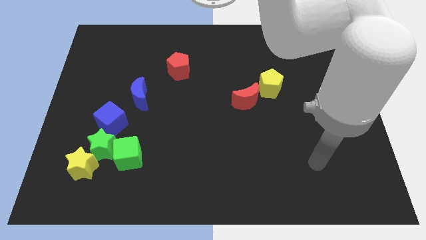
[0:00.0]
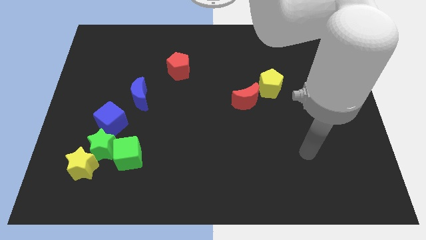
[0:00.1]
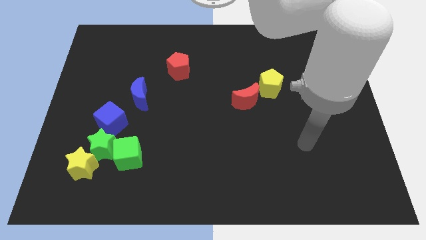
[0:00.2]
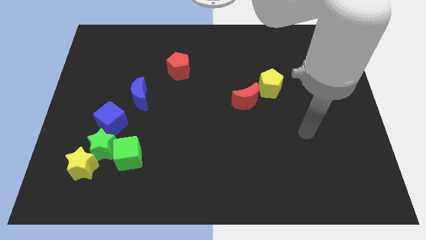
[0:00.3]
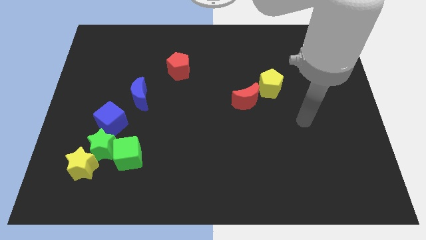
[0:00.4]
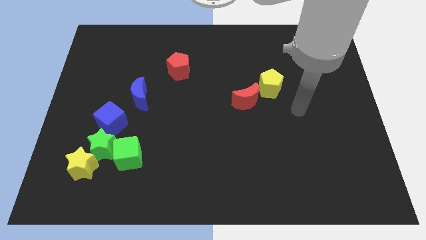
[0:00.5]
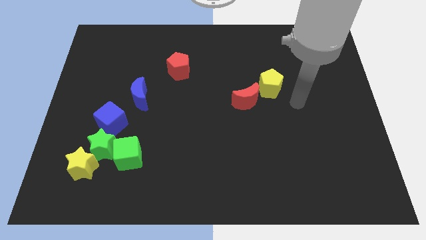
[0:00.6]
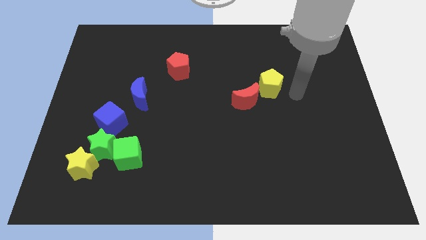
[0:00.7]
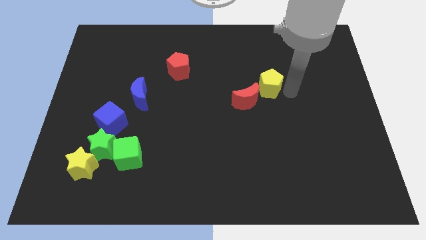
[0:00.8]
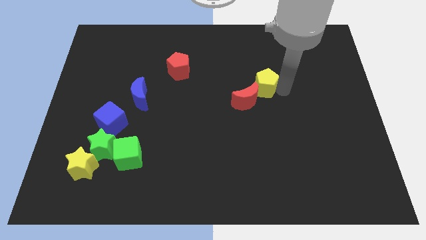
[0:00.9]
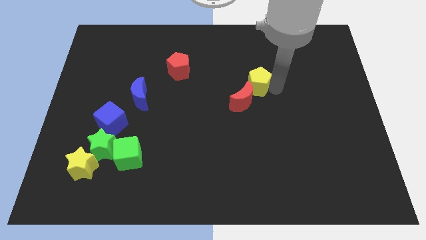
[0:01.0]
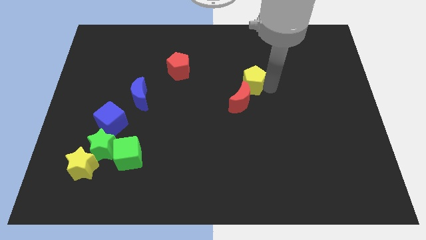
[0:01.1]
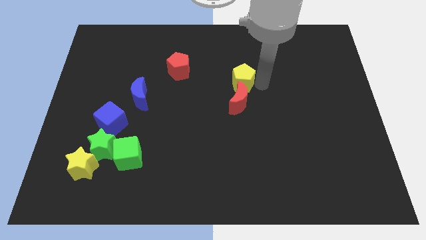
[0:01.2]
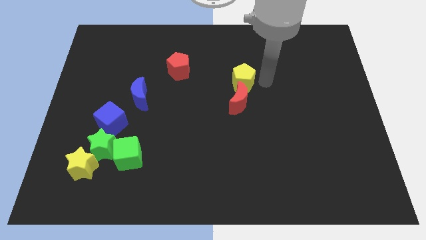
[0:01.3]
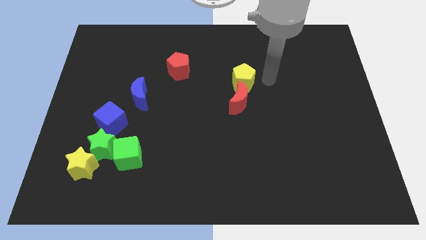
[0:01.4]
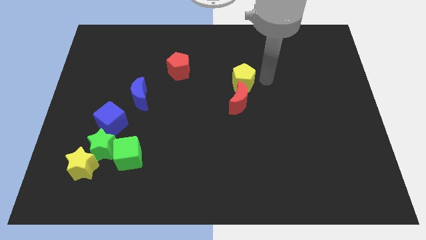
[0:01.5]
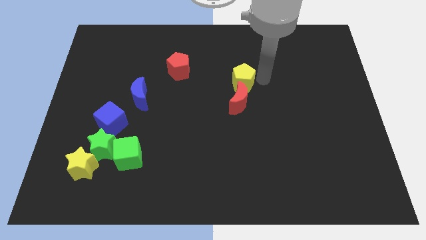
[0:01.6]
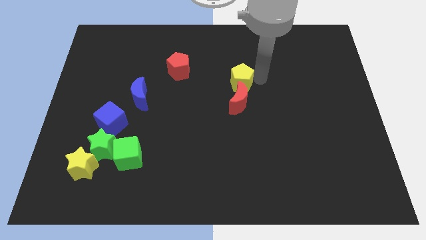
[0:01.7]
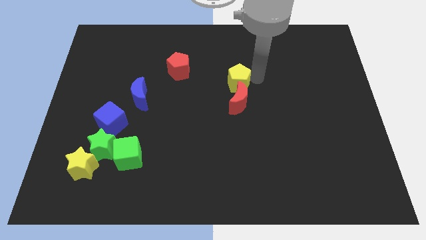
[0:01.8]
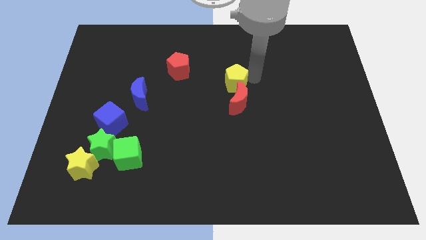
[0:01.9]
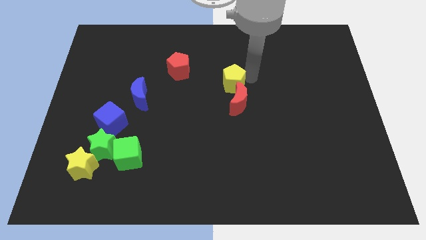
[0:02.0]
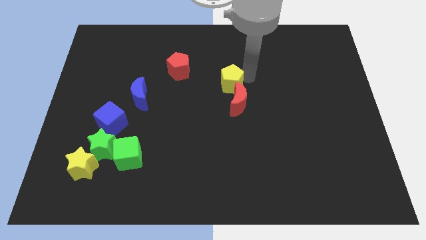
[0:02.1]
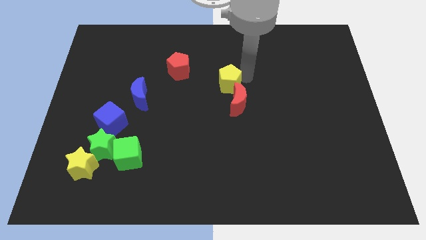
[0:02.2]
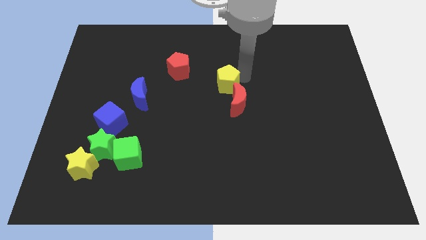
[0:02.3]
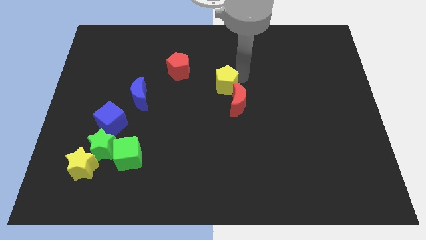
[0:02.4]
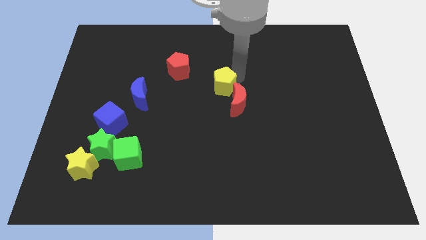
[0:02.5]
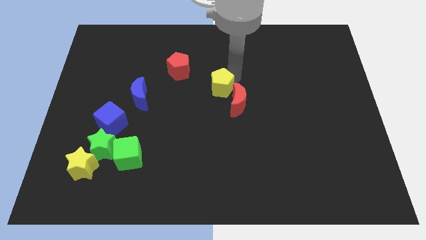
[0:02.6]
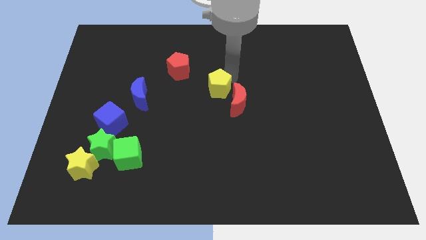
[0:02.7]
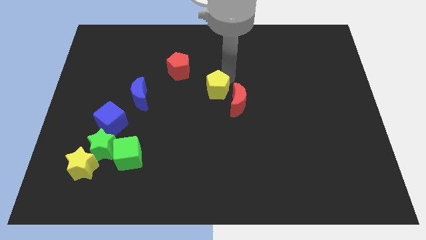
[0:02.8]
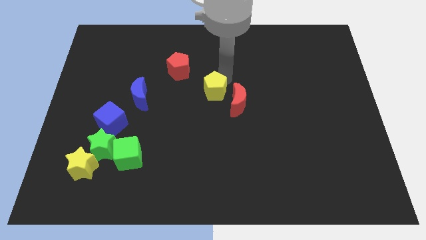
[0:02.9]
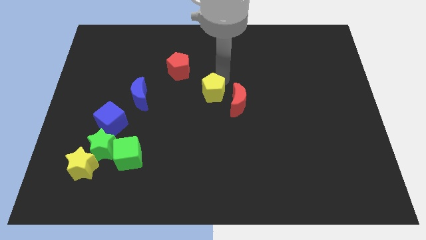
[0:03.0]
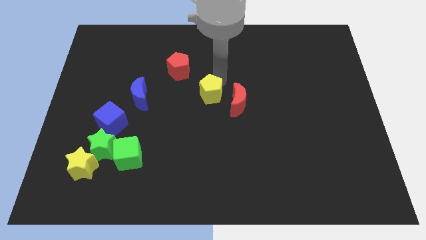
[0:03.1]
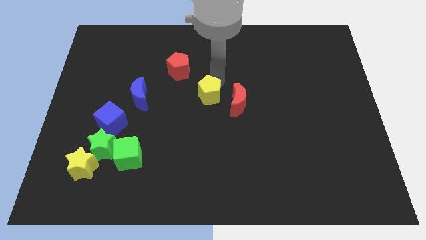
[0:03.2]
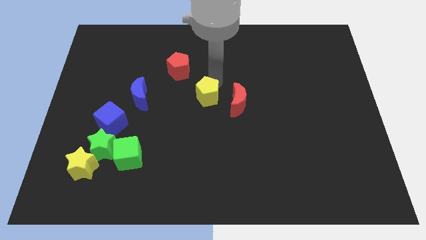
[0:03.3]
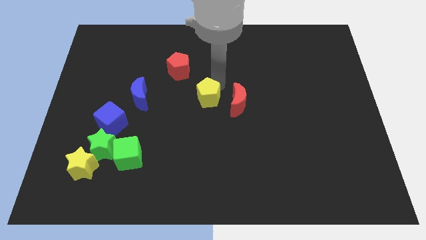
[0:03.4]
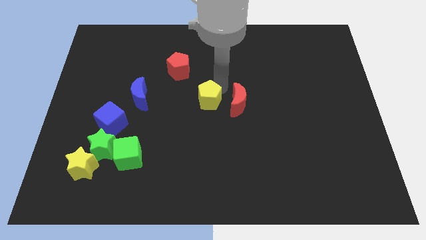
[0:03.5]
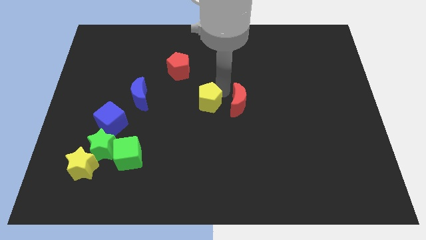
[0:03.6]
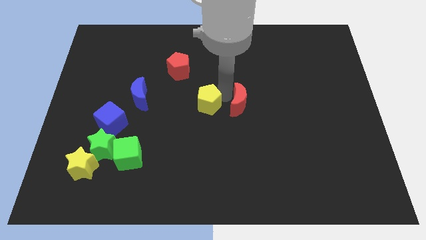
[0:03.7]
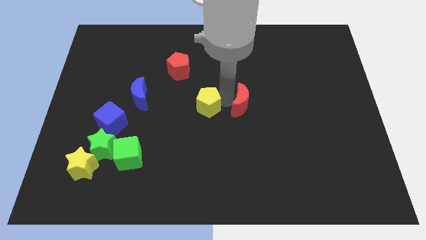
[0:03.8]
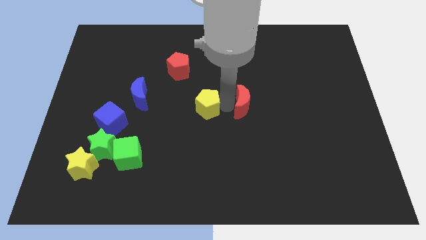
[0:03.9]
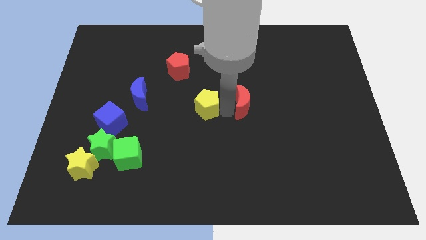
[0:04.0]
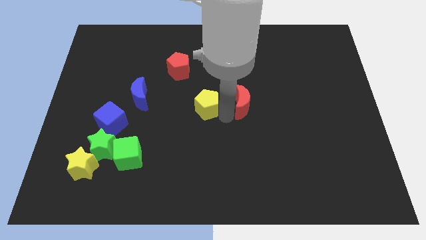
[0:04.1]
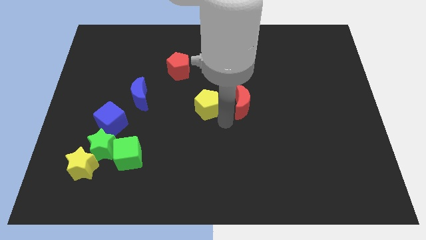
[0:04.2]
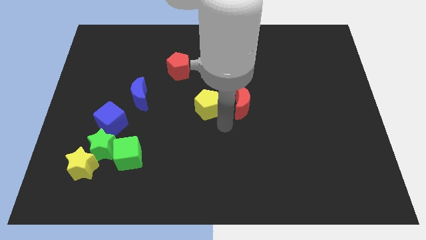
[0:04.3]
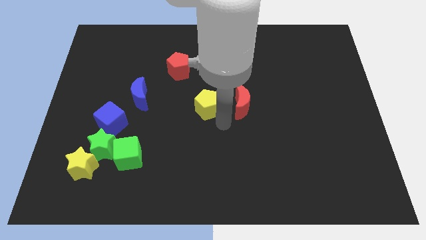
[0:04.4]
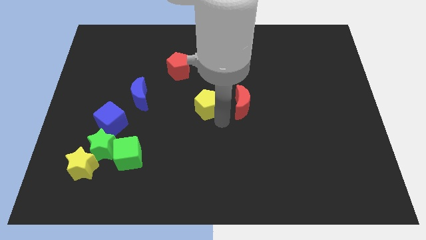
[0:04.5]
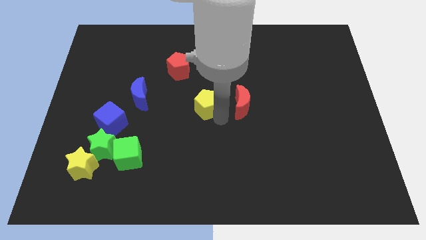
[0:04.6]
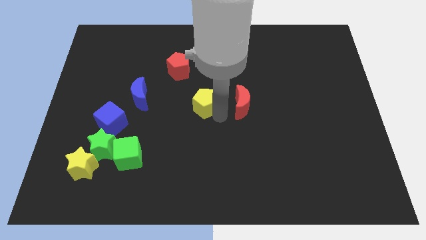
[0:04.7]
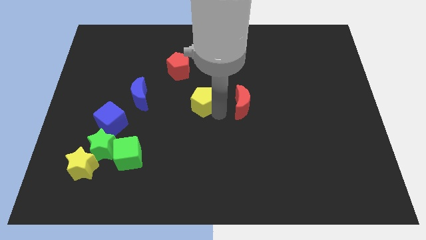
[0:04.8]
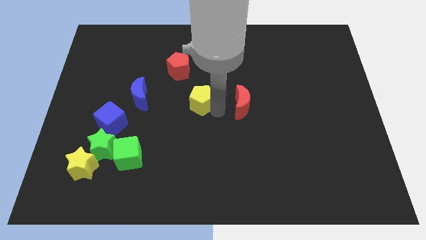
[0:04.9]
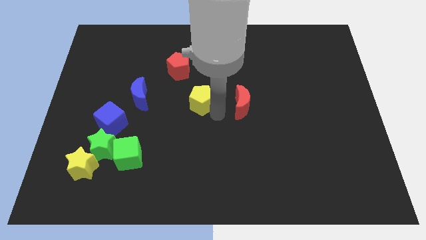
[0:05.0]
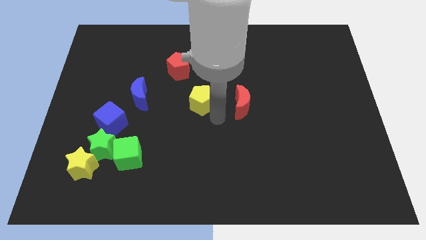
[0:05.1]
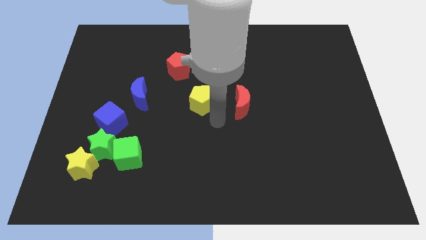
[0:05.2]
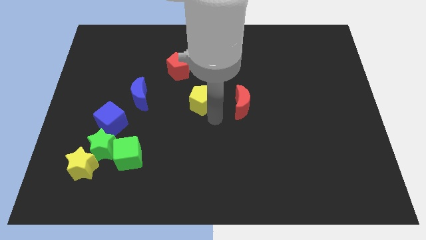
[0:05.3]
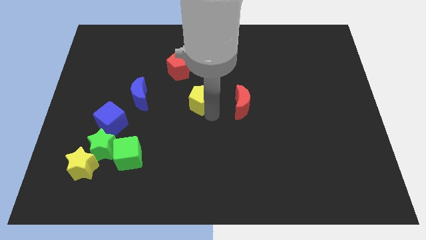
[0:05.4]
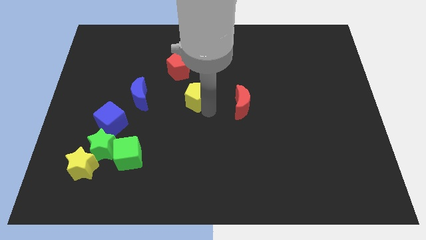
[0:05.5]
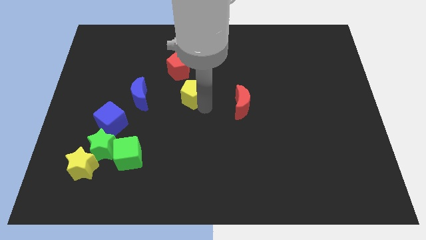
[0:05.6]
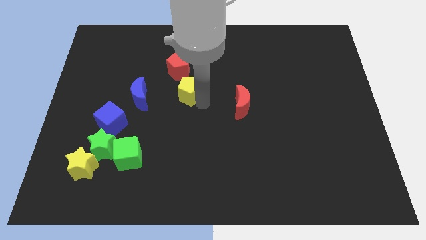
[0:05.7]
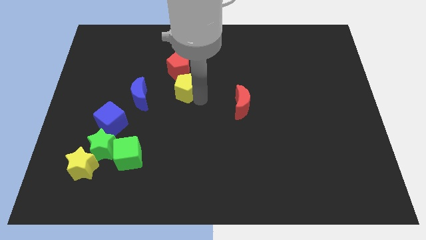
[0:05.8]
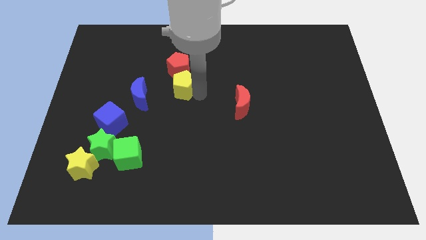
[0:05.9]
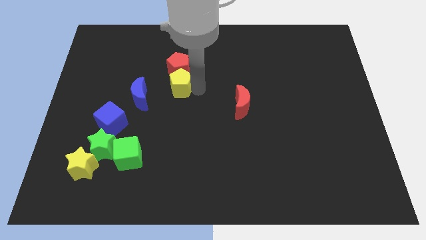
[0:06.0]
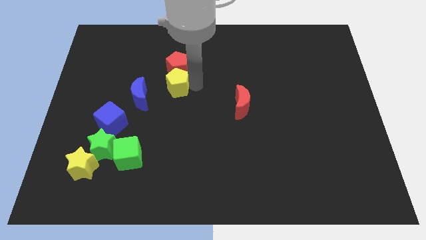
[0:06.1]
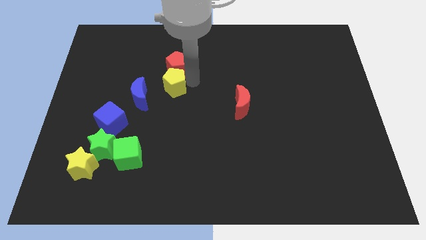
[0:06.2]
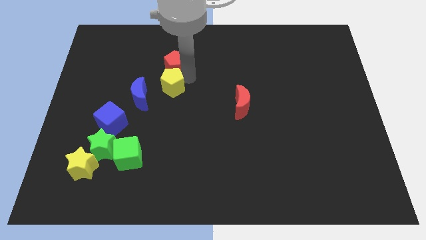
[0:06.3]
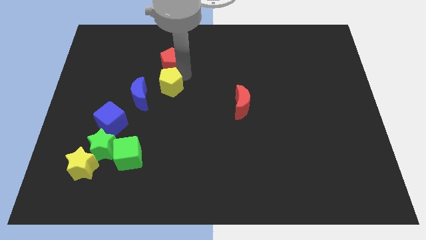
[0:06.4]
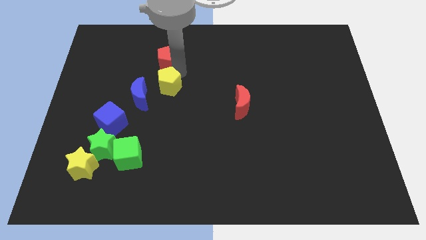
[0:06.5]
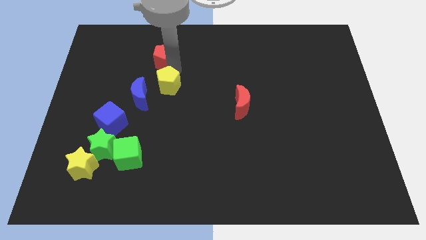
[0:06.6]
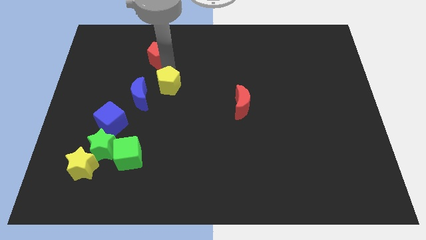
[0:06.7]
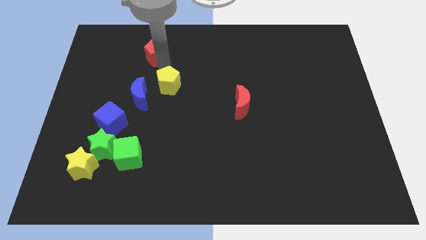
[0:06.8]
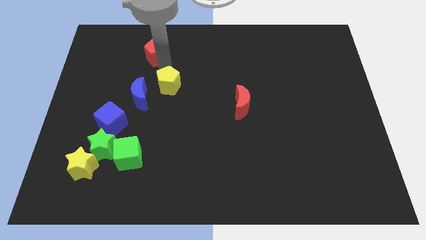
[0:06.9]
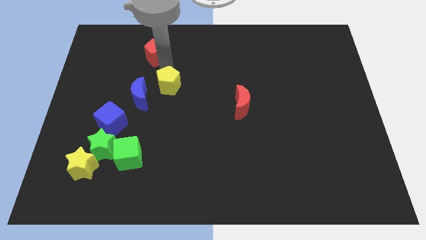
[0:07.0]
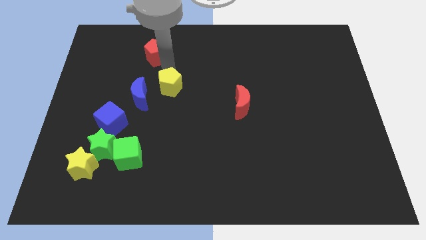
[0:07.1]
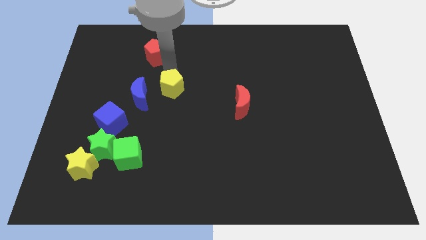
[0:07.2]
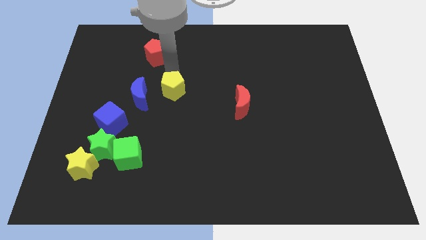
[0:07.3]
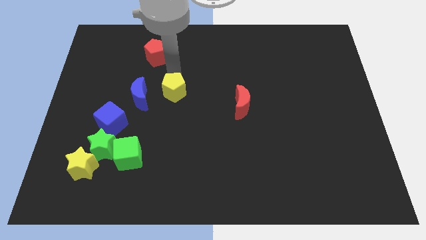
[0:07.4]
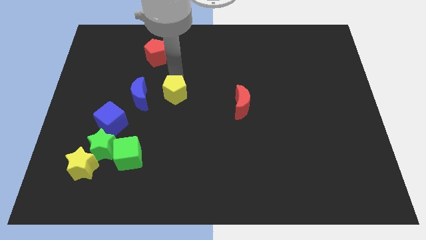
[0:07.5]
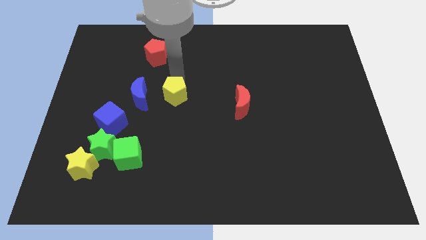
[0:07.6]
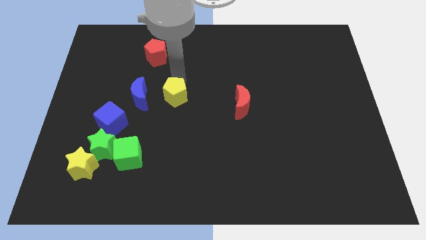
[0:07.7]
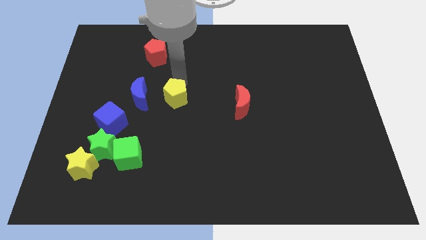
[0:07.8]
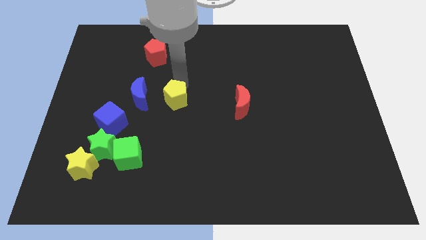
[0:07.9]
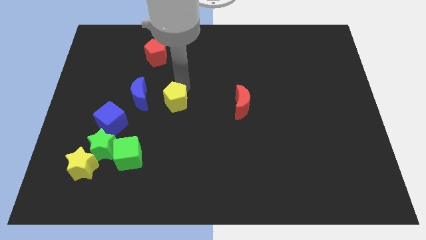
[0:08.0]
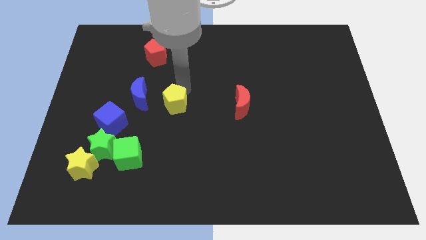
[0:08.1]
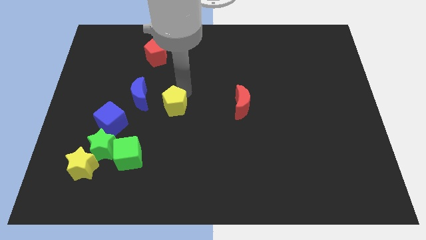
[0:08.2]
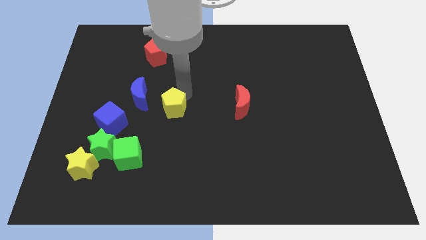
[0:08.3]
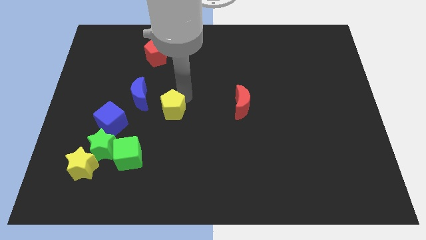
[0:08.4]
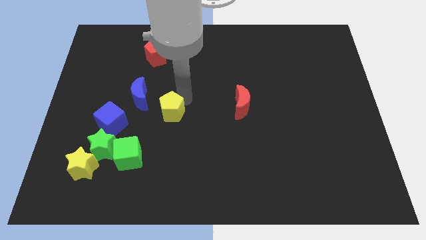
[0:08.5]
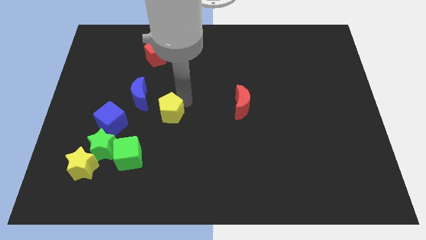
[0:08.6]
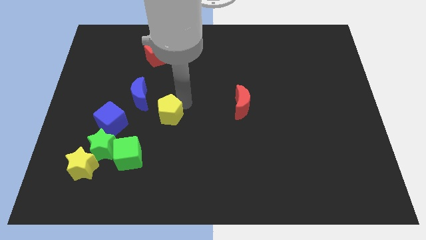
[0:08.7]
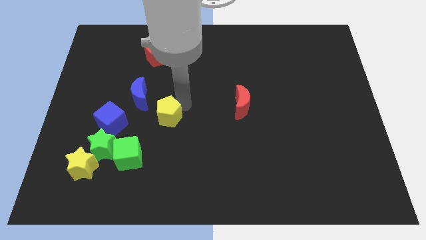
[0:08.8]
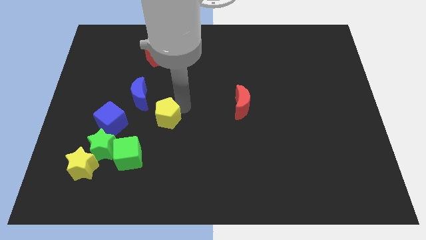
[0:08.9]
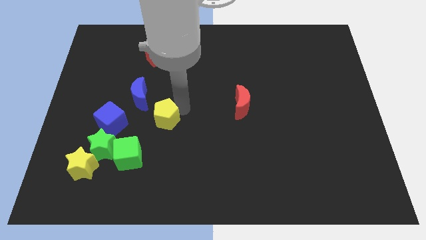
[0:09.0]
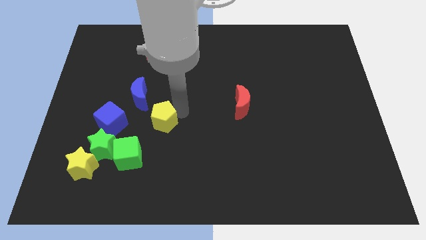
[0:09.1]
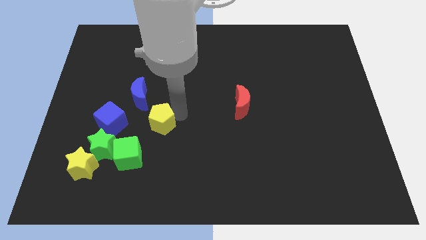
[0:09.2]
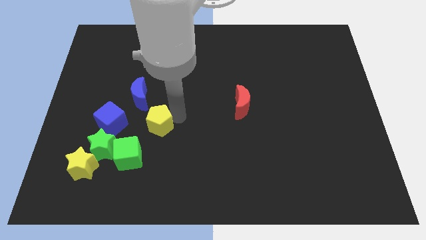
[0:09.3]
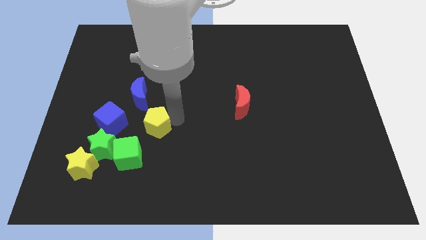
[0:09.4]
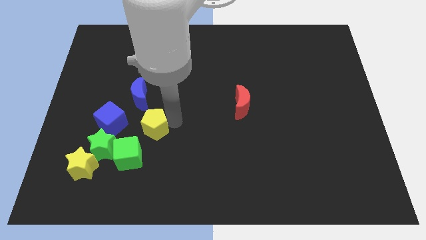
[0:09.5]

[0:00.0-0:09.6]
move the yellow pentagon to the top right side of the green star
